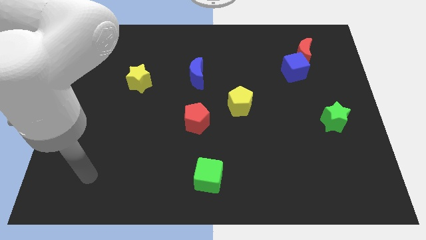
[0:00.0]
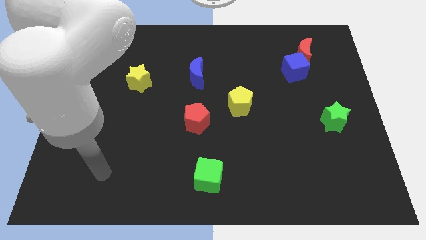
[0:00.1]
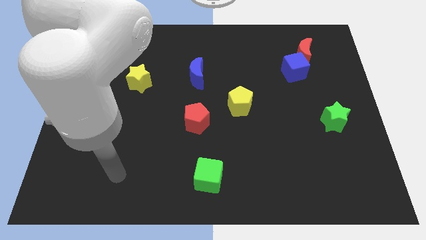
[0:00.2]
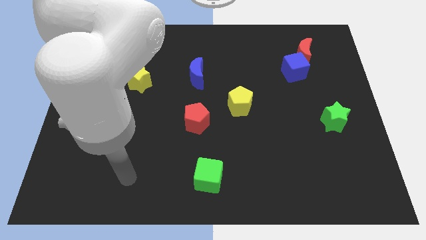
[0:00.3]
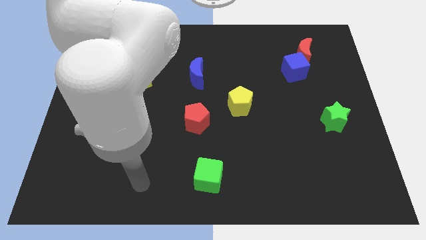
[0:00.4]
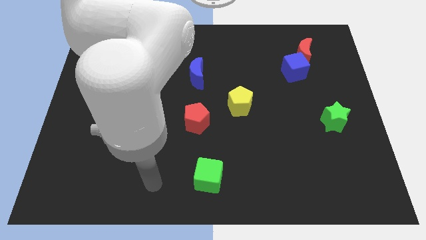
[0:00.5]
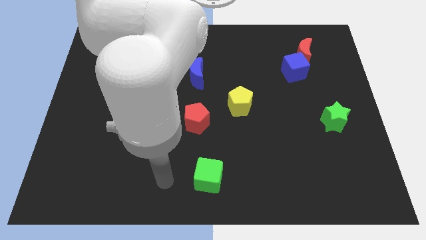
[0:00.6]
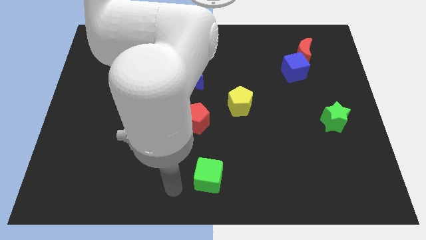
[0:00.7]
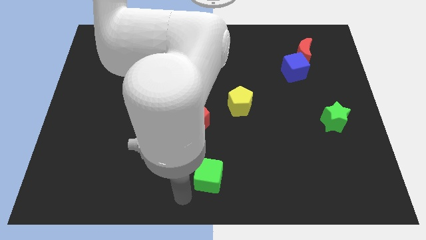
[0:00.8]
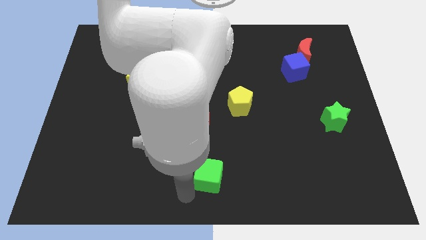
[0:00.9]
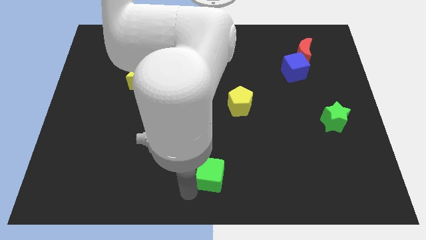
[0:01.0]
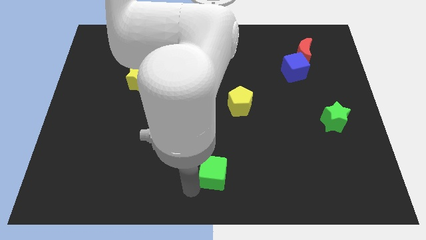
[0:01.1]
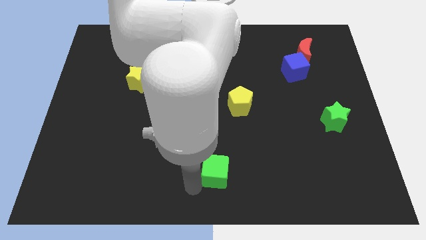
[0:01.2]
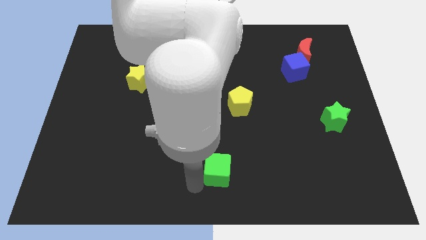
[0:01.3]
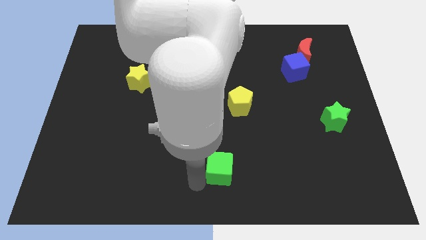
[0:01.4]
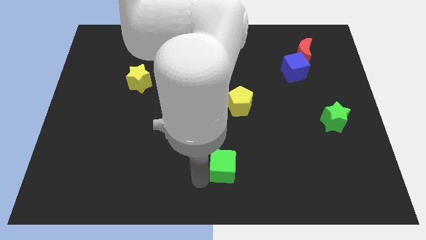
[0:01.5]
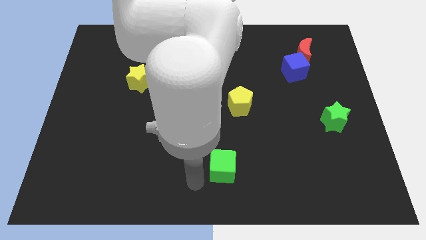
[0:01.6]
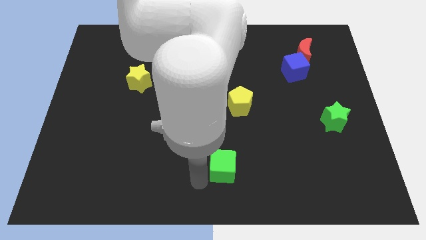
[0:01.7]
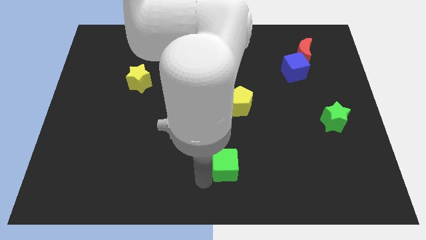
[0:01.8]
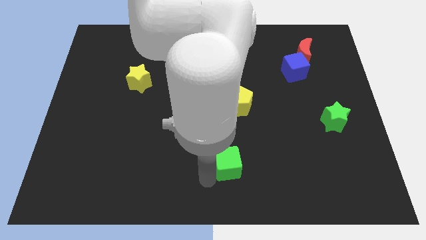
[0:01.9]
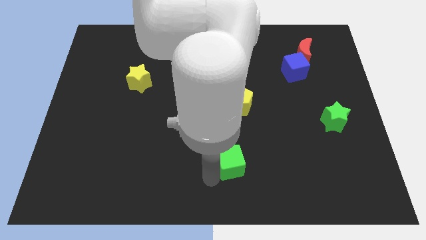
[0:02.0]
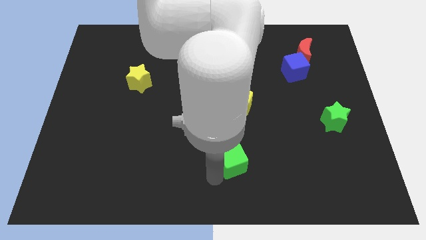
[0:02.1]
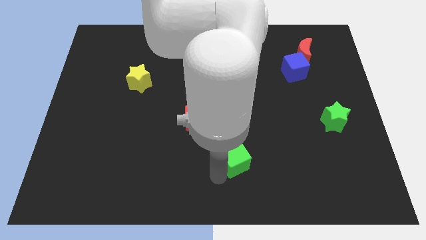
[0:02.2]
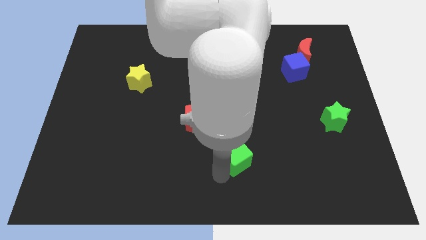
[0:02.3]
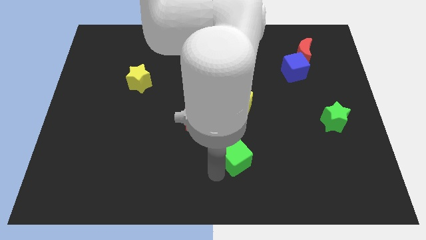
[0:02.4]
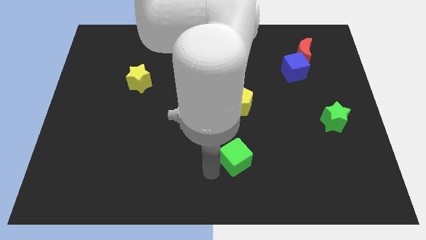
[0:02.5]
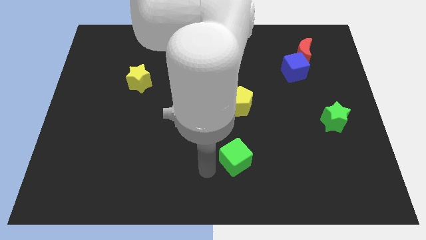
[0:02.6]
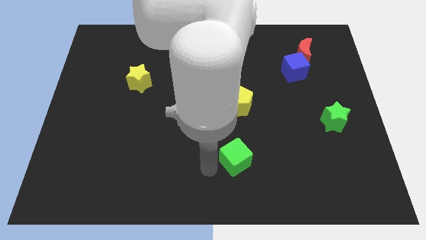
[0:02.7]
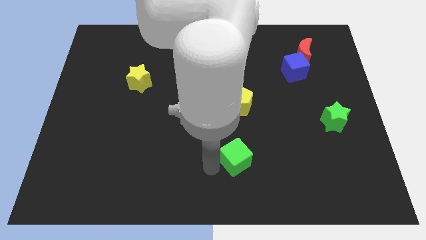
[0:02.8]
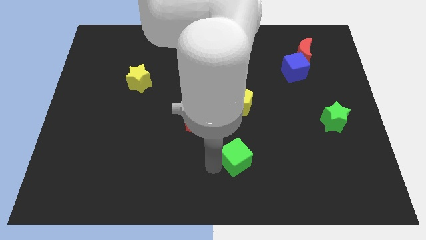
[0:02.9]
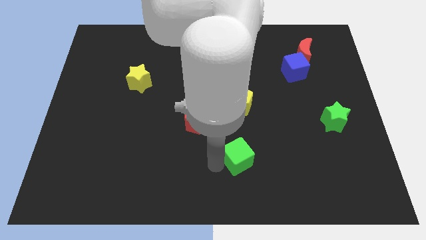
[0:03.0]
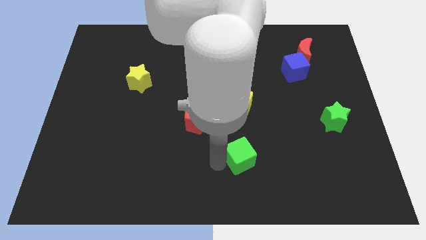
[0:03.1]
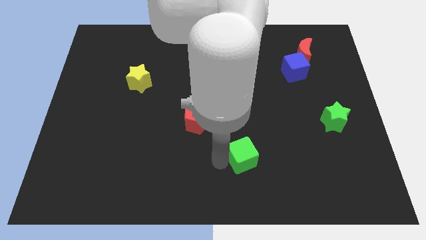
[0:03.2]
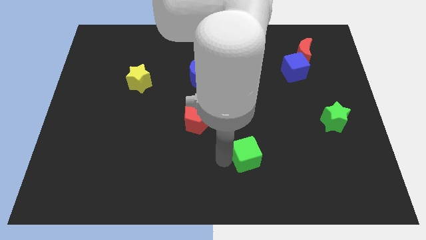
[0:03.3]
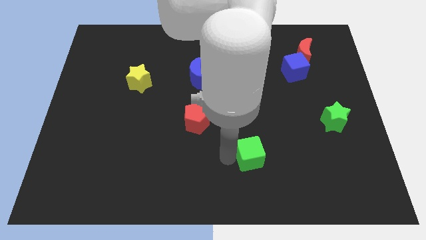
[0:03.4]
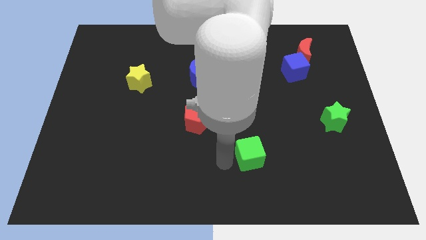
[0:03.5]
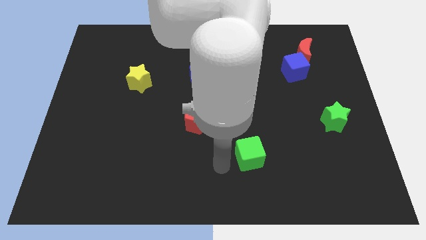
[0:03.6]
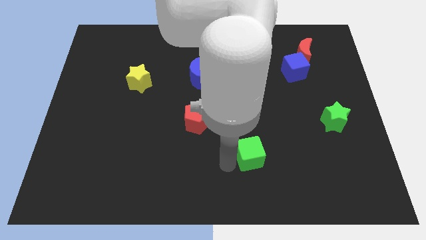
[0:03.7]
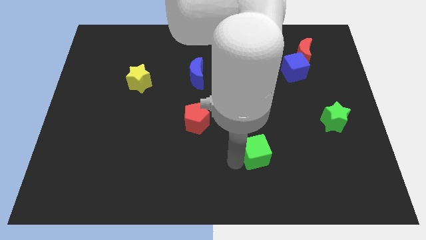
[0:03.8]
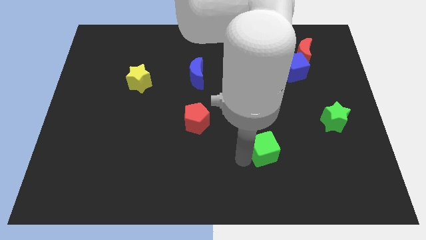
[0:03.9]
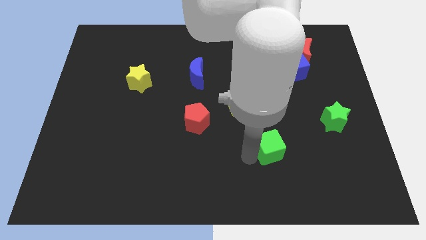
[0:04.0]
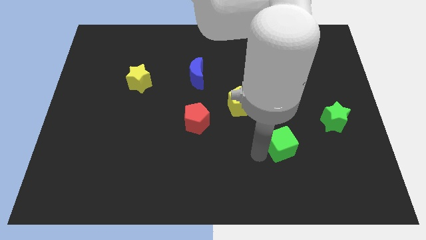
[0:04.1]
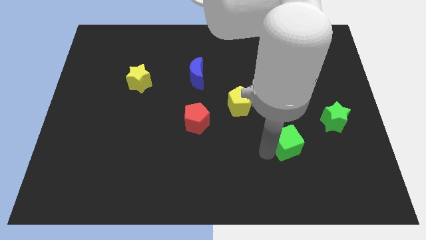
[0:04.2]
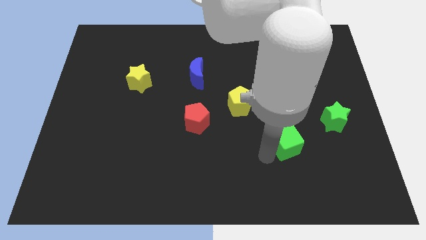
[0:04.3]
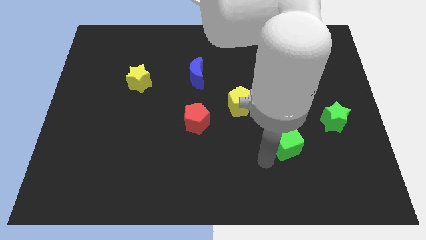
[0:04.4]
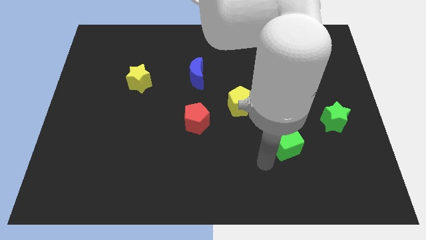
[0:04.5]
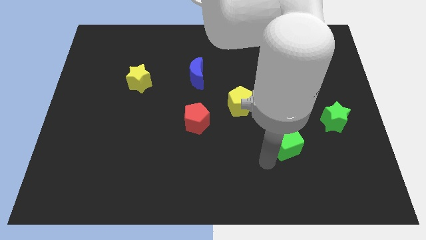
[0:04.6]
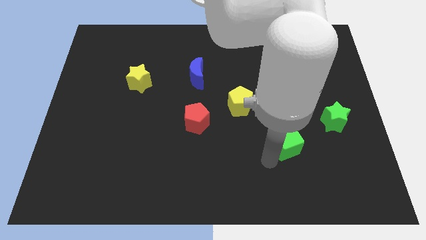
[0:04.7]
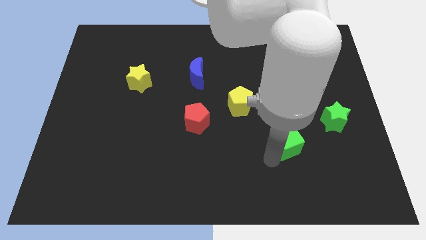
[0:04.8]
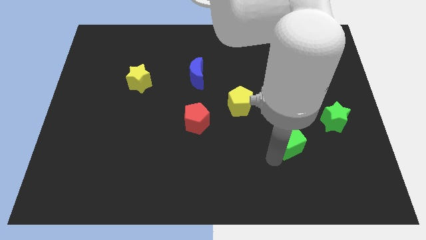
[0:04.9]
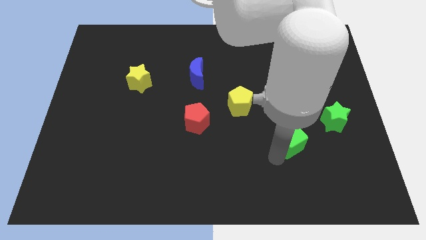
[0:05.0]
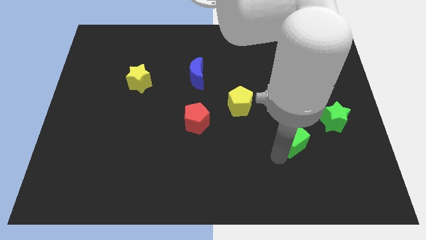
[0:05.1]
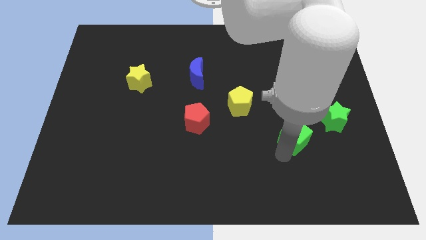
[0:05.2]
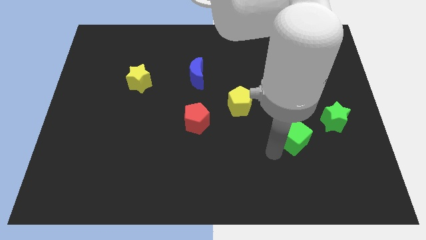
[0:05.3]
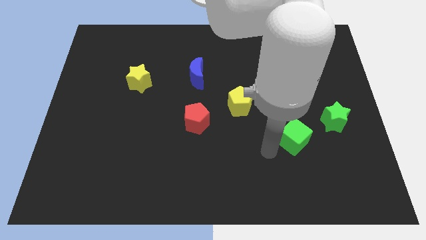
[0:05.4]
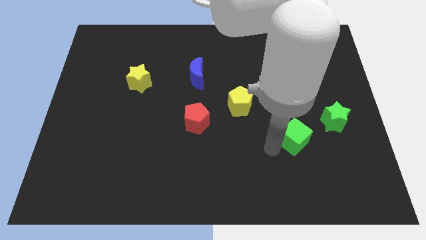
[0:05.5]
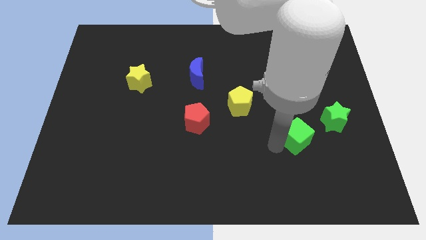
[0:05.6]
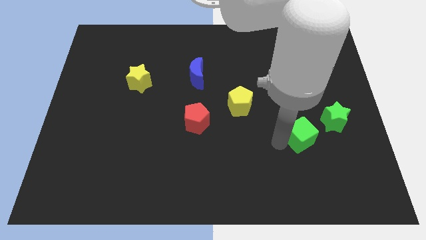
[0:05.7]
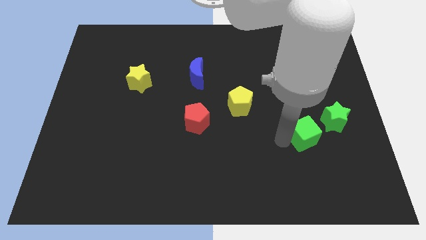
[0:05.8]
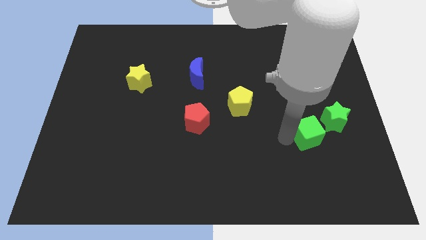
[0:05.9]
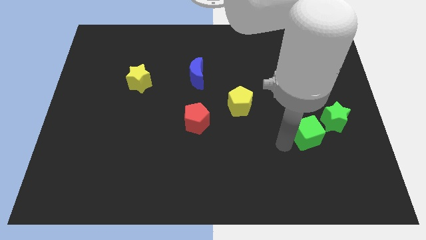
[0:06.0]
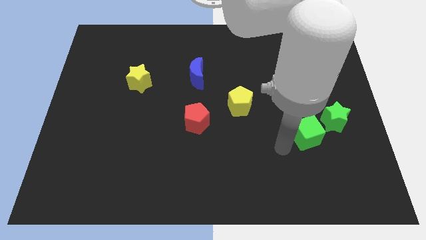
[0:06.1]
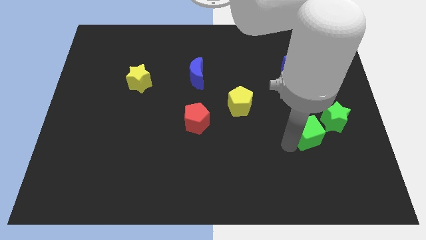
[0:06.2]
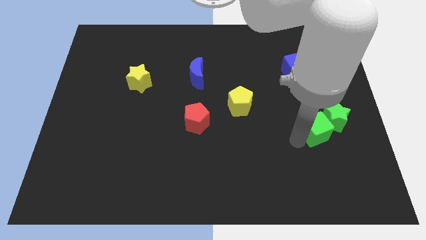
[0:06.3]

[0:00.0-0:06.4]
put the green cube to the green star
